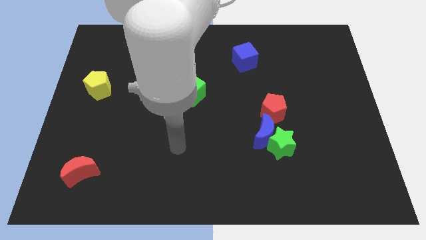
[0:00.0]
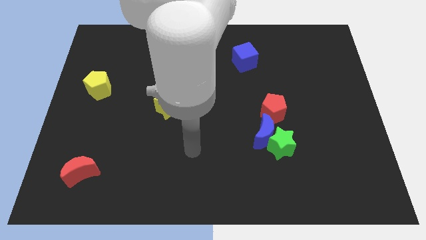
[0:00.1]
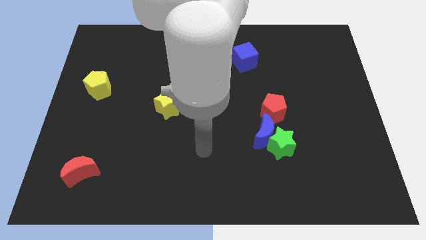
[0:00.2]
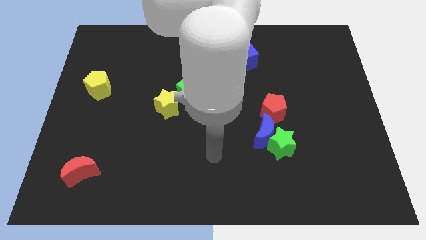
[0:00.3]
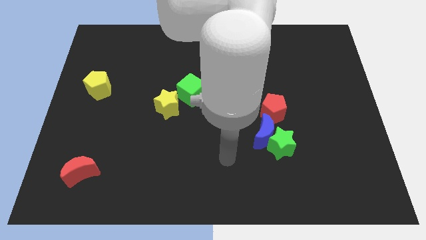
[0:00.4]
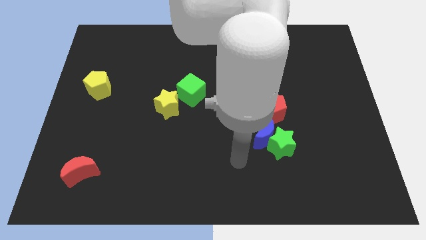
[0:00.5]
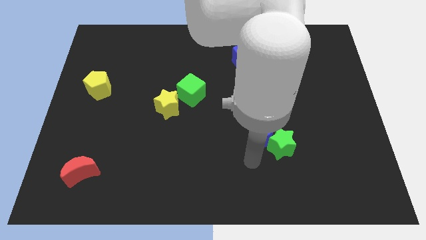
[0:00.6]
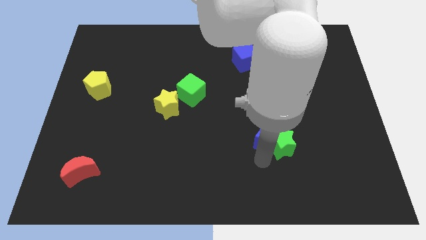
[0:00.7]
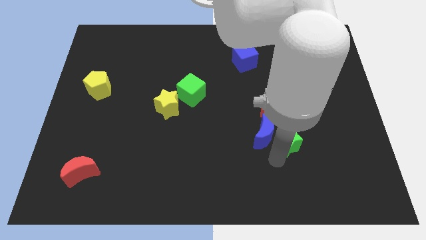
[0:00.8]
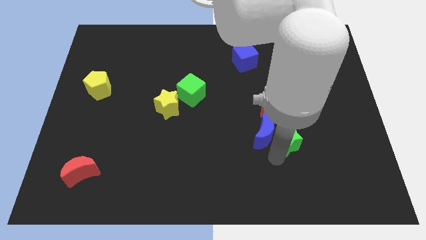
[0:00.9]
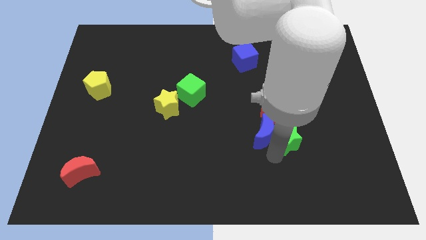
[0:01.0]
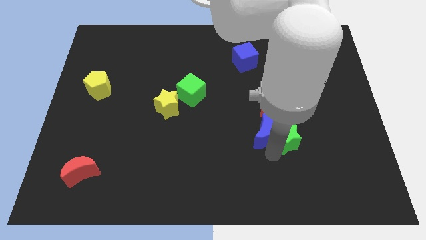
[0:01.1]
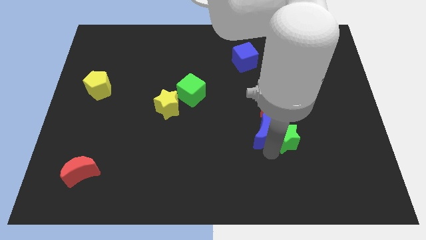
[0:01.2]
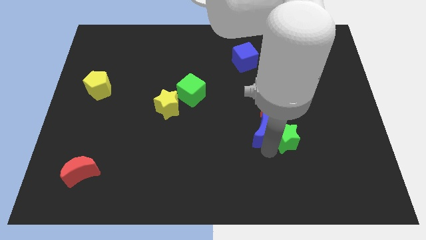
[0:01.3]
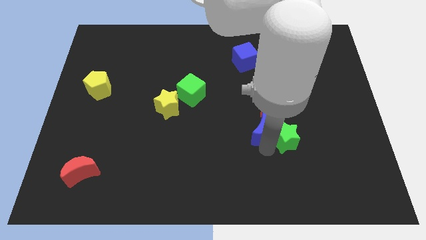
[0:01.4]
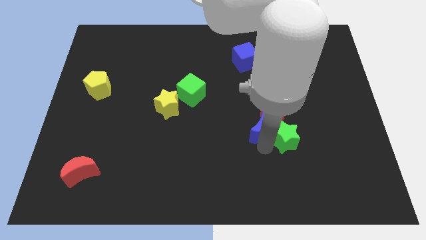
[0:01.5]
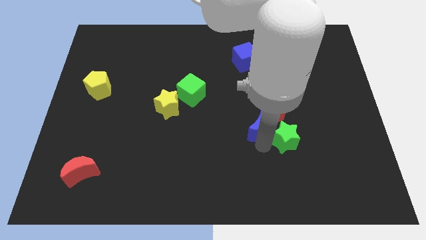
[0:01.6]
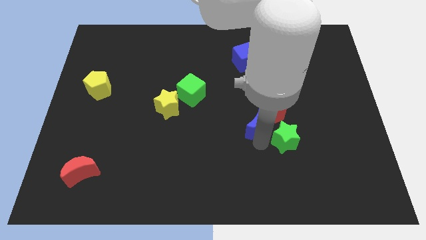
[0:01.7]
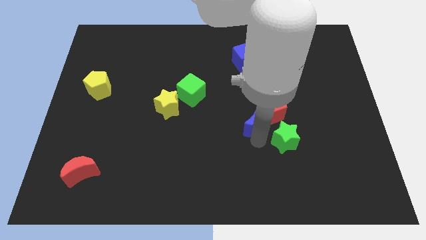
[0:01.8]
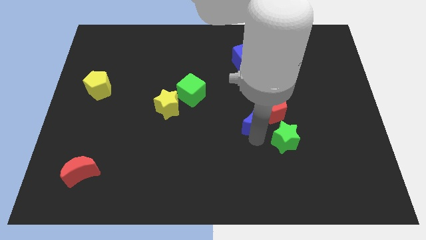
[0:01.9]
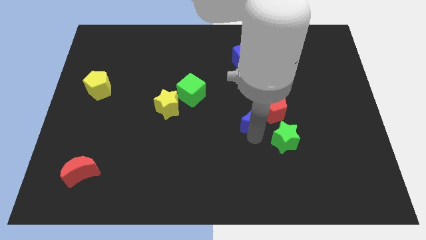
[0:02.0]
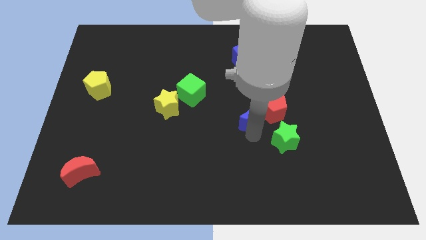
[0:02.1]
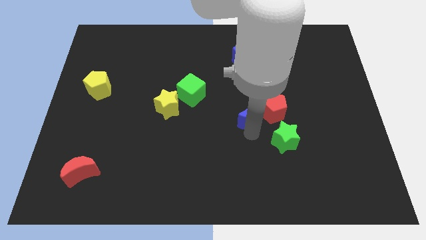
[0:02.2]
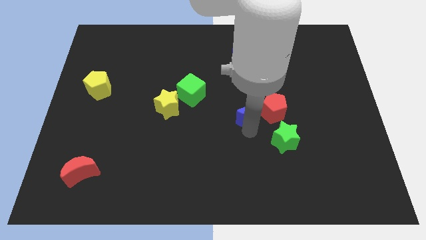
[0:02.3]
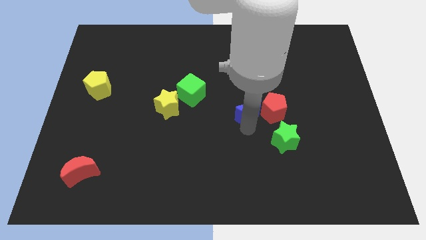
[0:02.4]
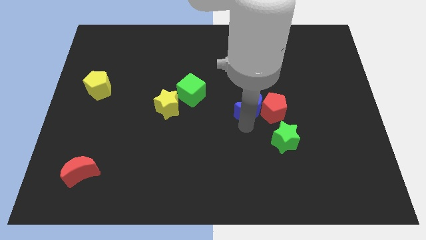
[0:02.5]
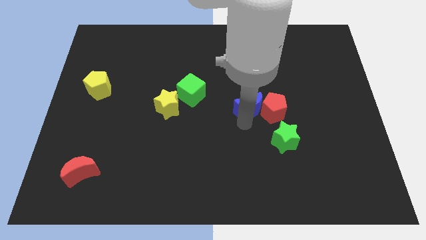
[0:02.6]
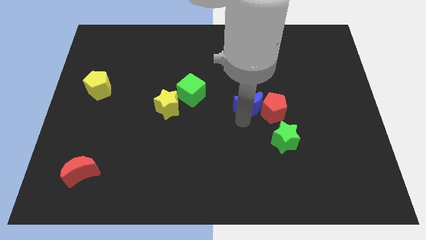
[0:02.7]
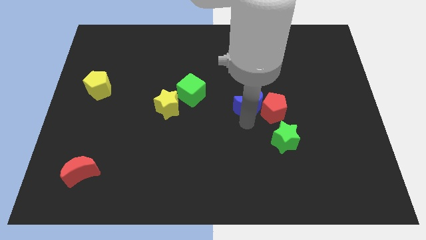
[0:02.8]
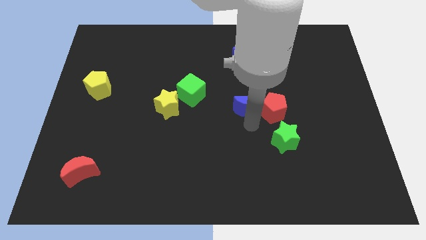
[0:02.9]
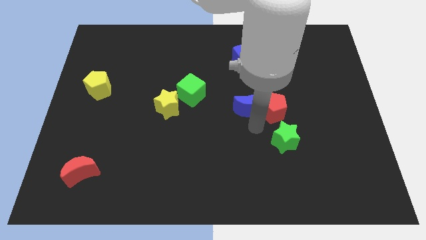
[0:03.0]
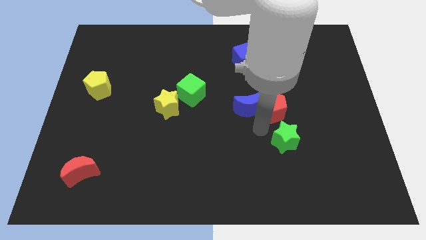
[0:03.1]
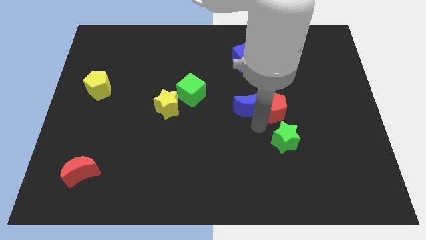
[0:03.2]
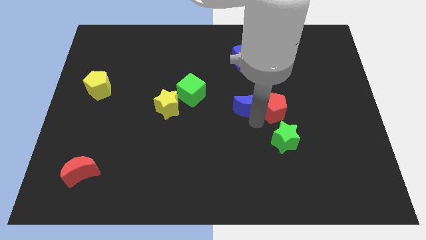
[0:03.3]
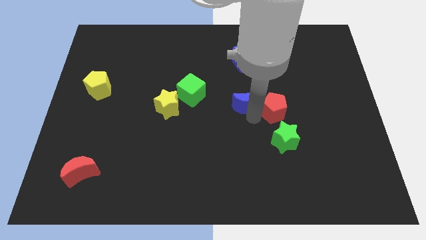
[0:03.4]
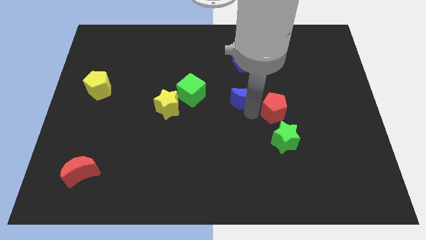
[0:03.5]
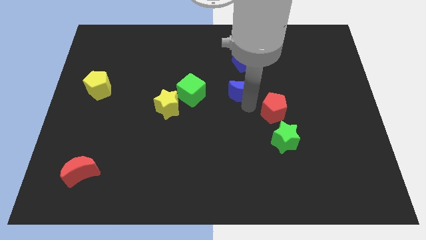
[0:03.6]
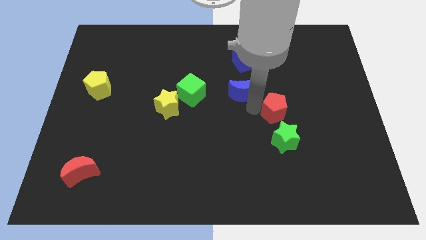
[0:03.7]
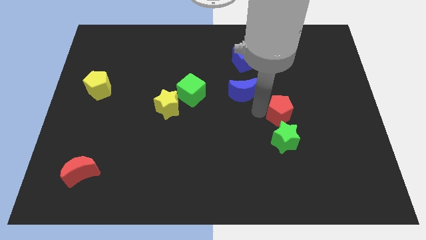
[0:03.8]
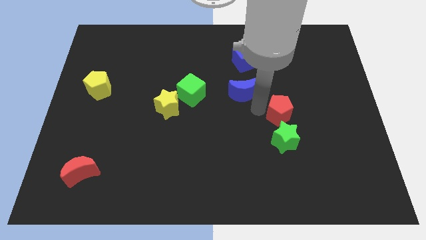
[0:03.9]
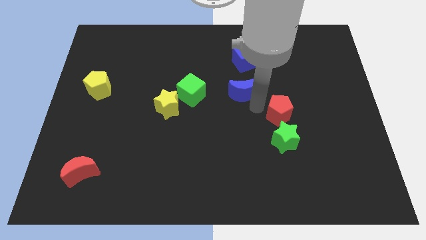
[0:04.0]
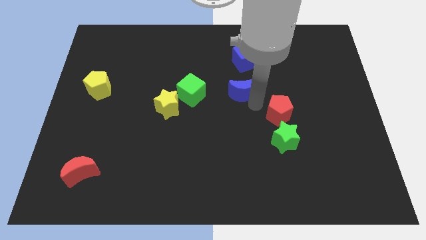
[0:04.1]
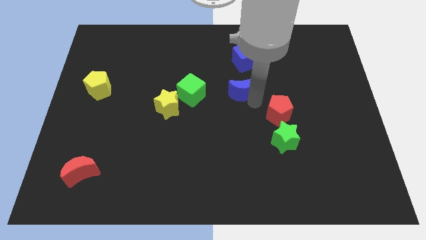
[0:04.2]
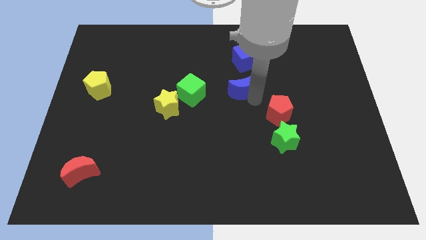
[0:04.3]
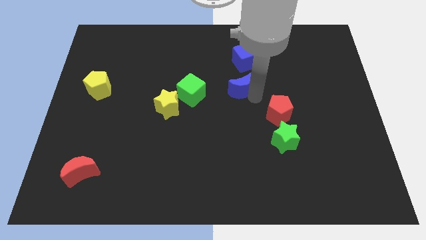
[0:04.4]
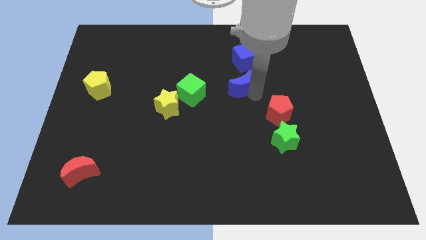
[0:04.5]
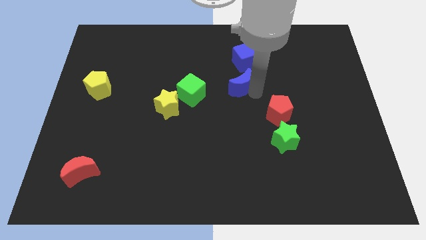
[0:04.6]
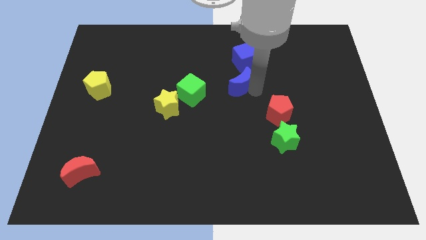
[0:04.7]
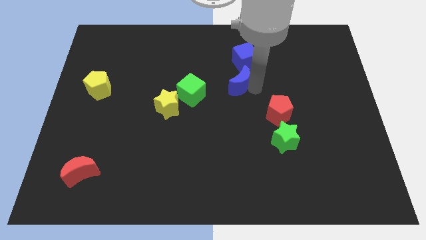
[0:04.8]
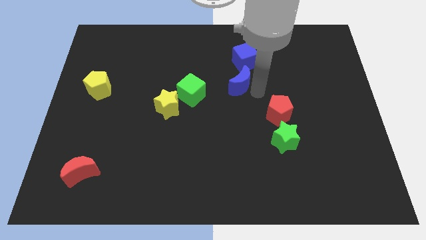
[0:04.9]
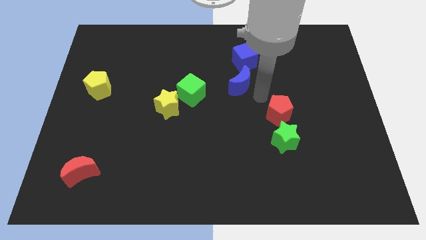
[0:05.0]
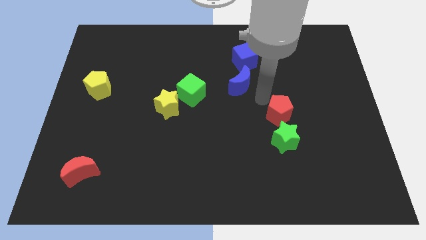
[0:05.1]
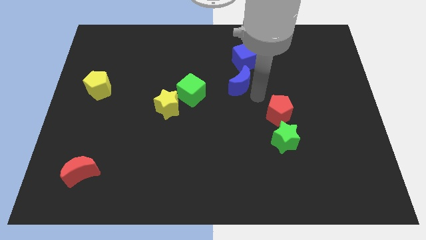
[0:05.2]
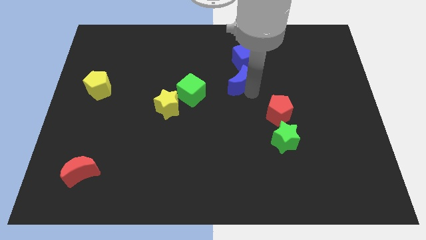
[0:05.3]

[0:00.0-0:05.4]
push the blue moon to the bottom left of the blue cube
